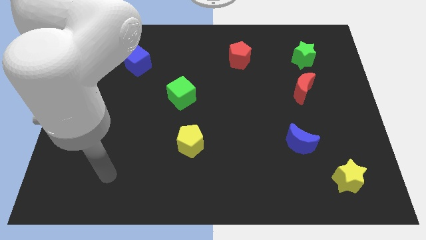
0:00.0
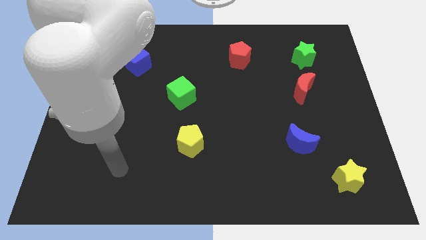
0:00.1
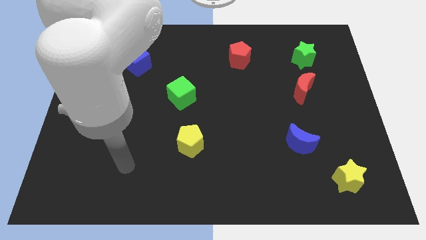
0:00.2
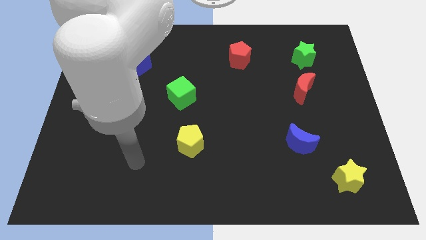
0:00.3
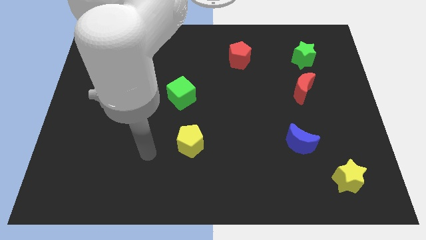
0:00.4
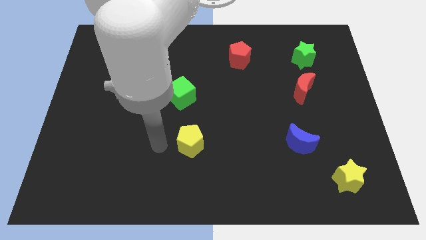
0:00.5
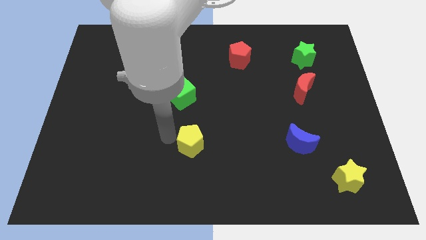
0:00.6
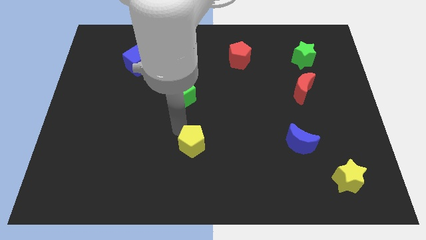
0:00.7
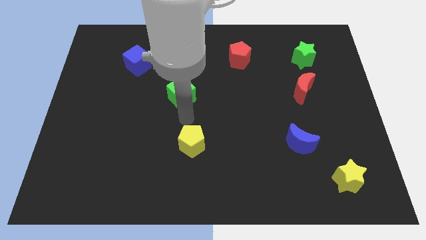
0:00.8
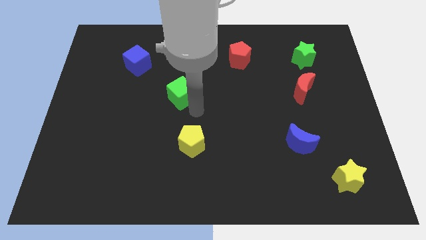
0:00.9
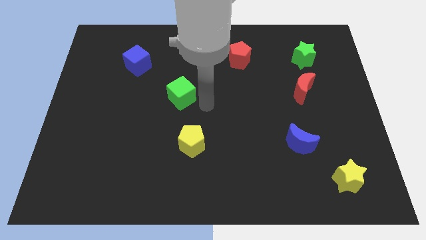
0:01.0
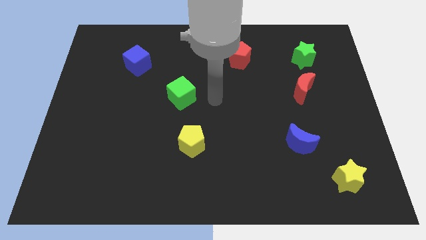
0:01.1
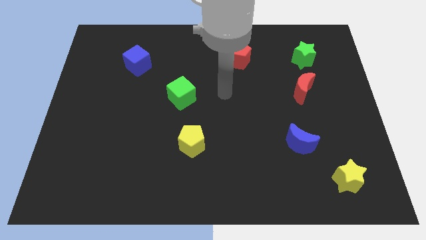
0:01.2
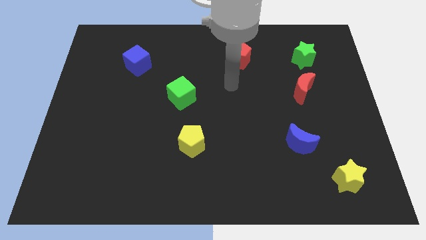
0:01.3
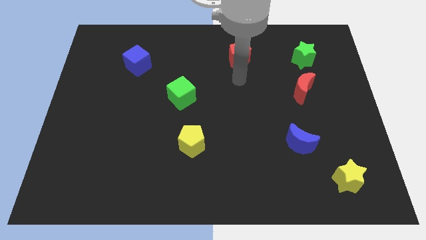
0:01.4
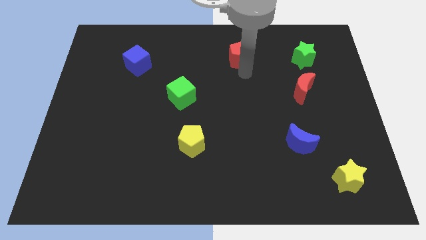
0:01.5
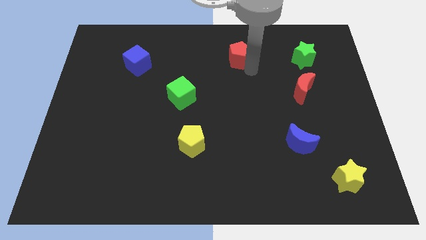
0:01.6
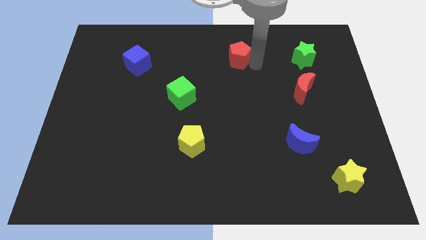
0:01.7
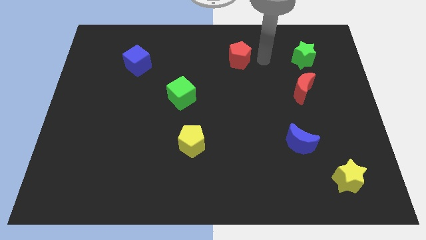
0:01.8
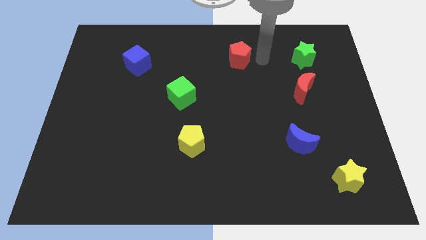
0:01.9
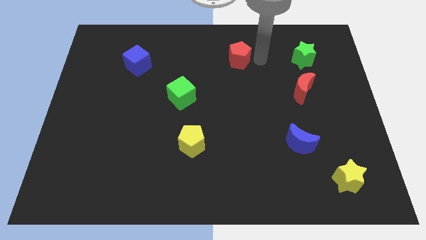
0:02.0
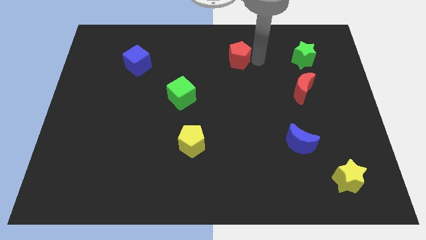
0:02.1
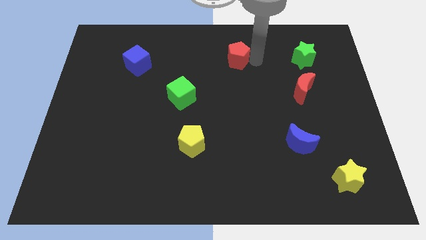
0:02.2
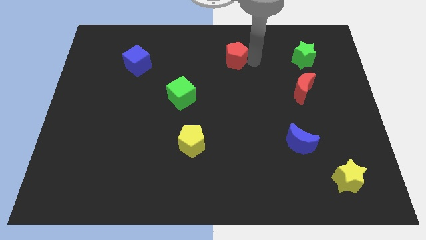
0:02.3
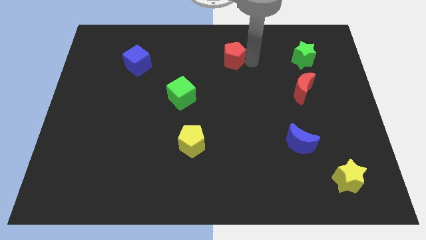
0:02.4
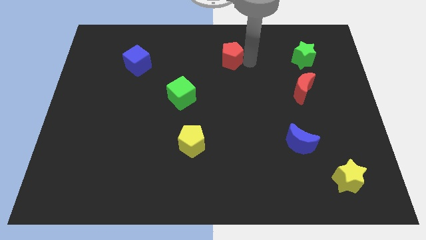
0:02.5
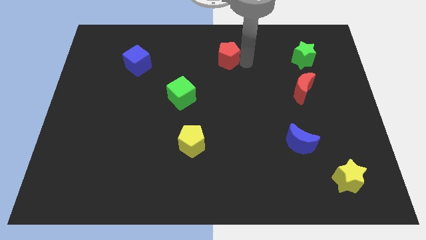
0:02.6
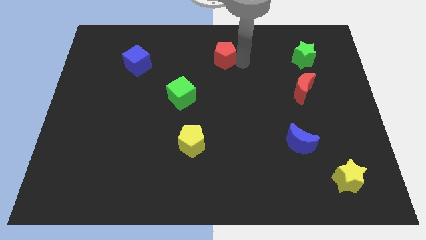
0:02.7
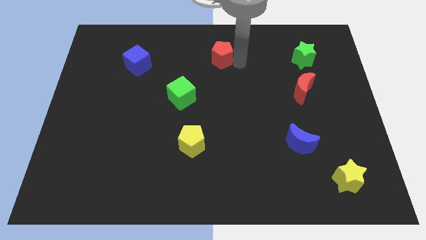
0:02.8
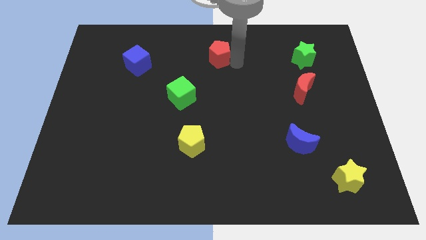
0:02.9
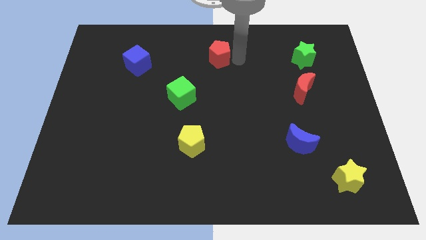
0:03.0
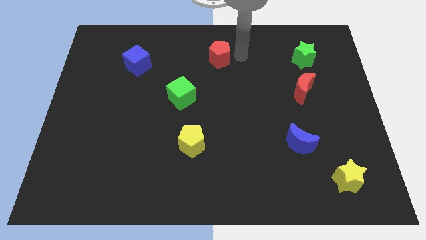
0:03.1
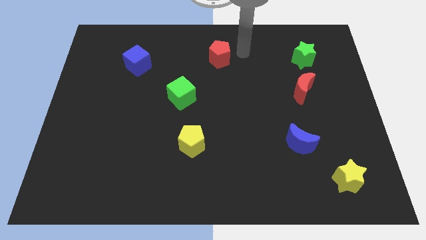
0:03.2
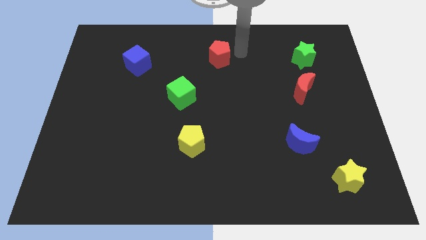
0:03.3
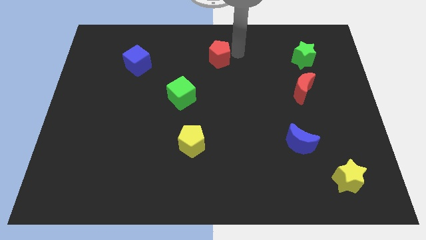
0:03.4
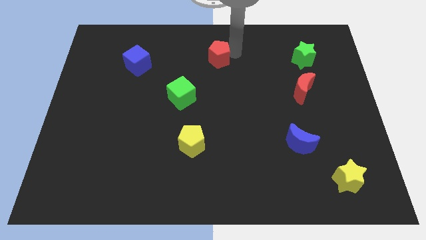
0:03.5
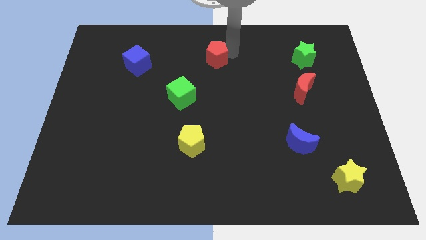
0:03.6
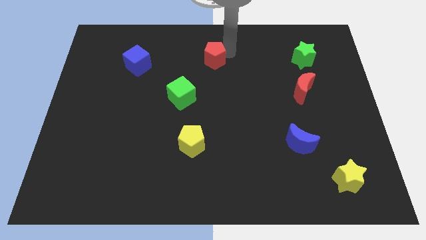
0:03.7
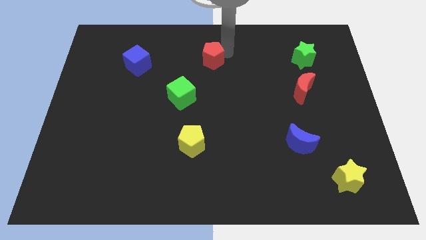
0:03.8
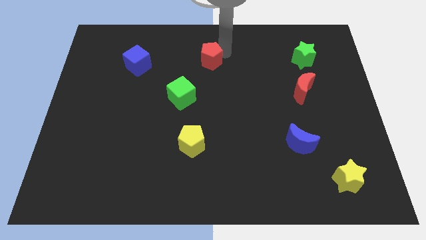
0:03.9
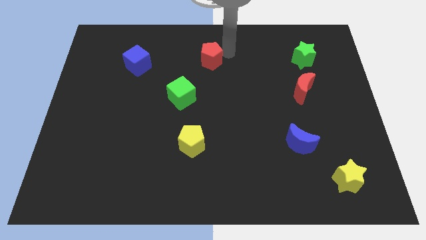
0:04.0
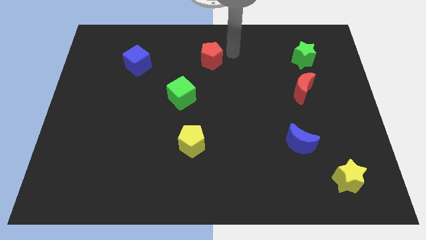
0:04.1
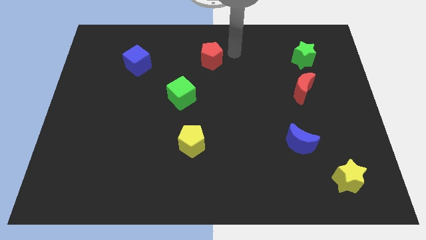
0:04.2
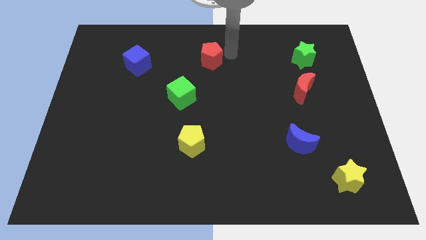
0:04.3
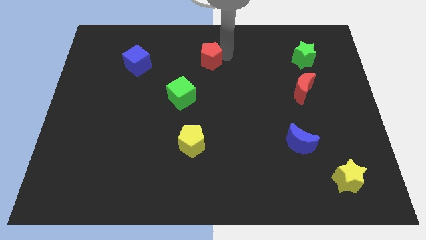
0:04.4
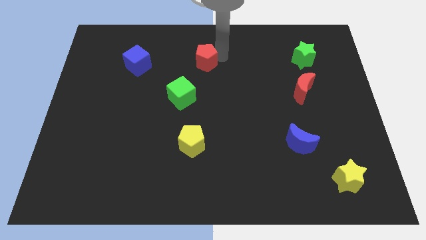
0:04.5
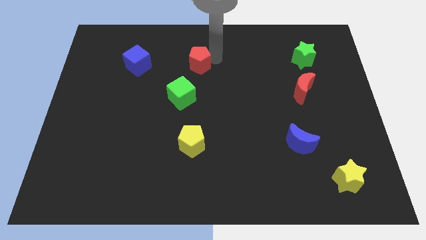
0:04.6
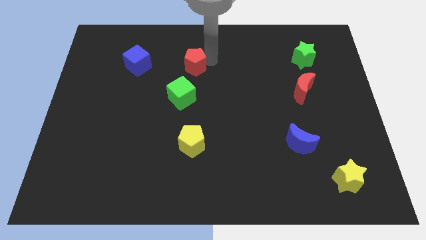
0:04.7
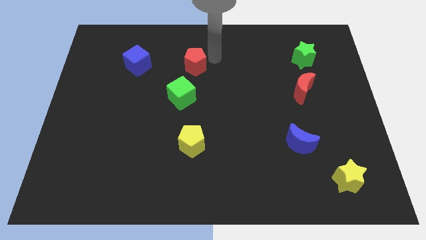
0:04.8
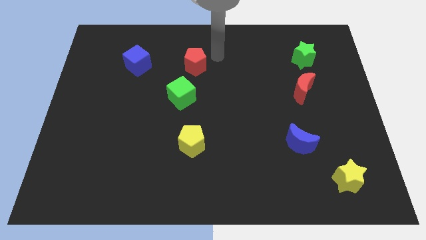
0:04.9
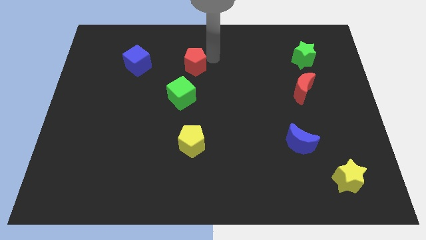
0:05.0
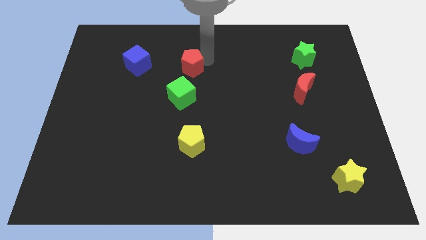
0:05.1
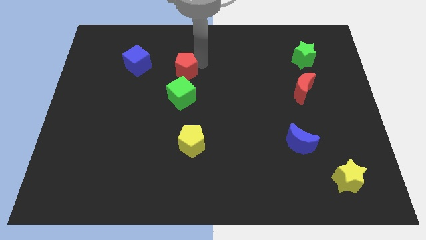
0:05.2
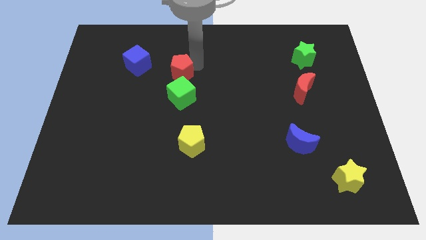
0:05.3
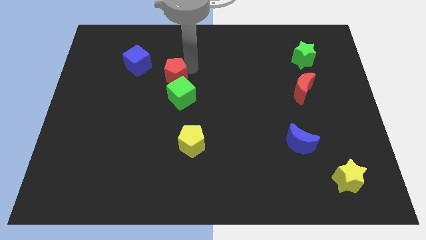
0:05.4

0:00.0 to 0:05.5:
put the red pentagon to the bottom right of the blue cube

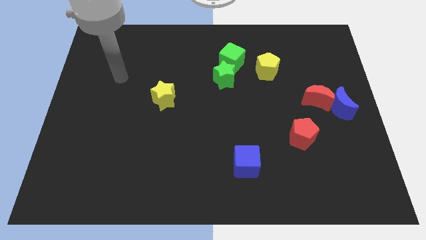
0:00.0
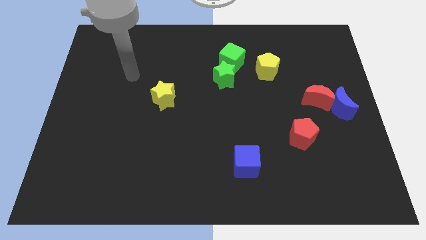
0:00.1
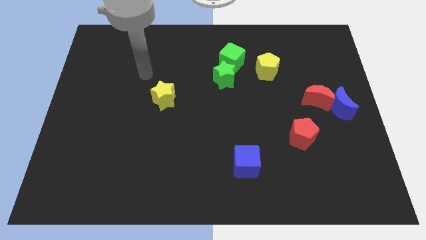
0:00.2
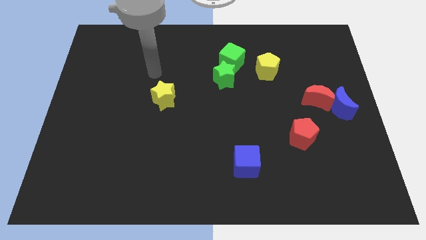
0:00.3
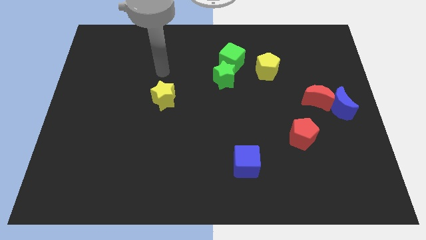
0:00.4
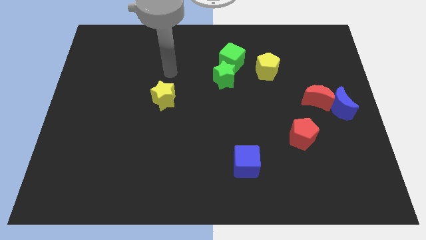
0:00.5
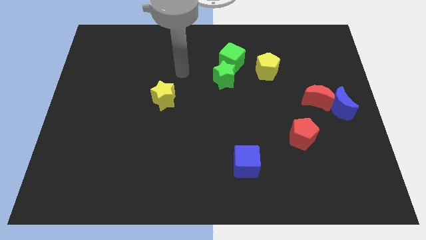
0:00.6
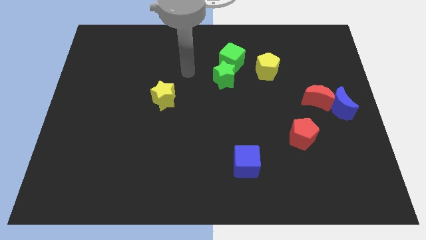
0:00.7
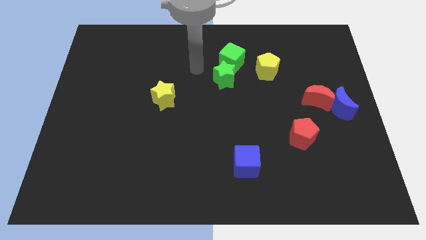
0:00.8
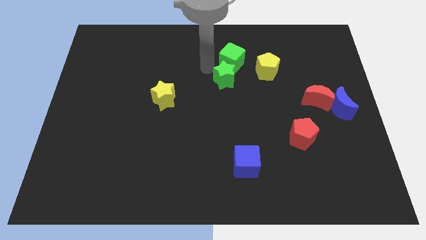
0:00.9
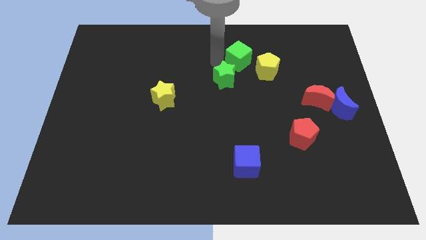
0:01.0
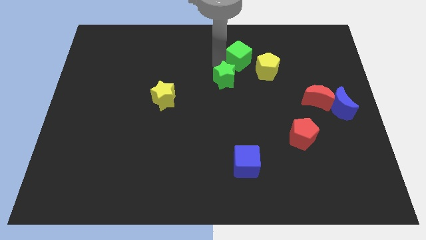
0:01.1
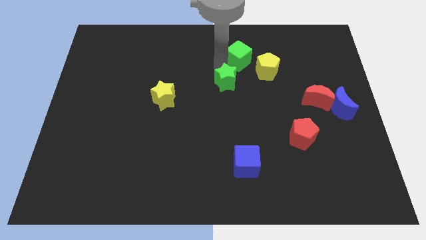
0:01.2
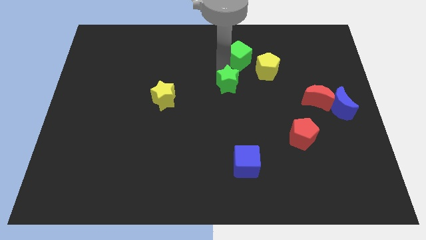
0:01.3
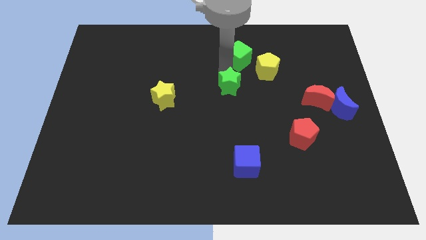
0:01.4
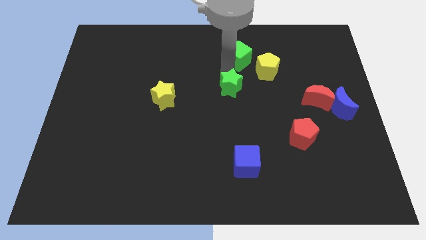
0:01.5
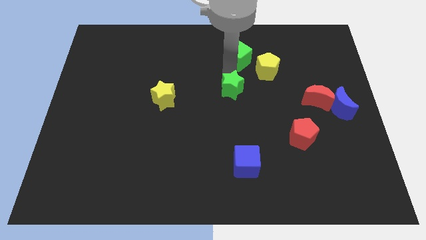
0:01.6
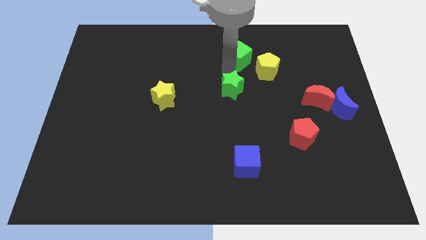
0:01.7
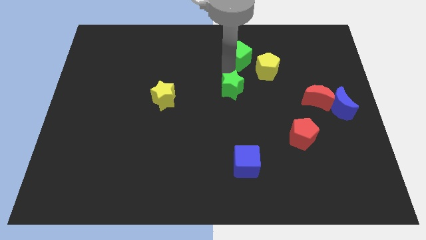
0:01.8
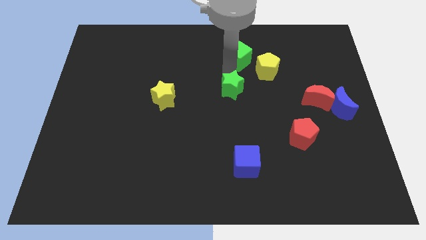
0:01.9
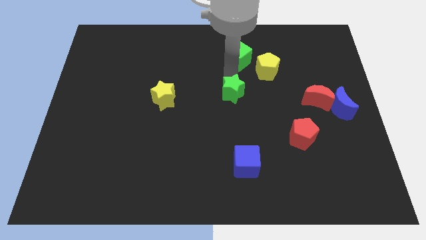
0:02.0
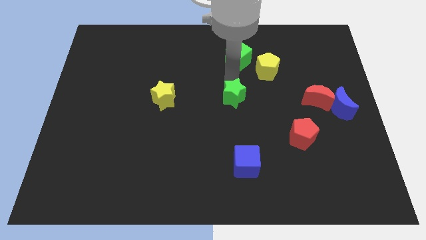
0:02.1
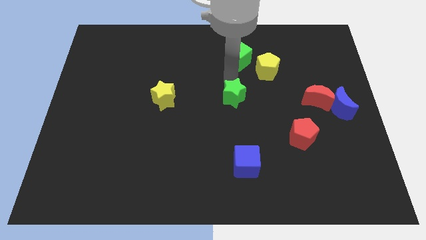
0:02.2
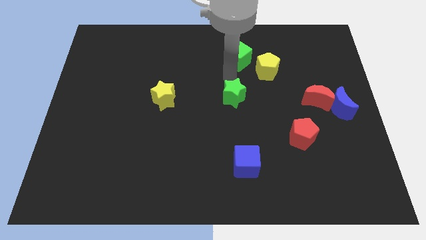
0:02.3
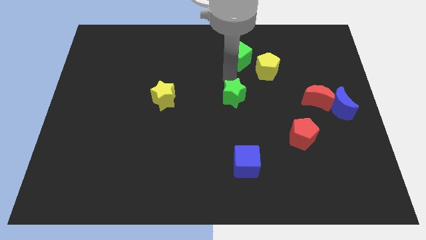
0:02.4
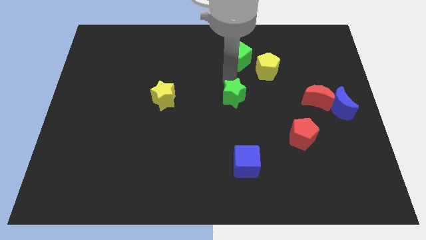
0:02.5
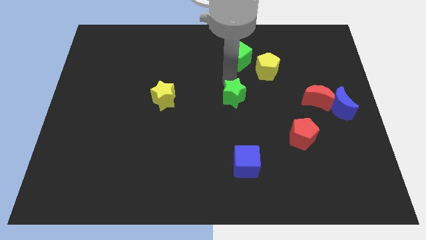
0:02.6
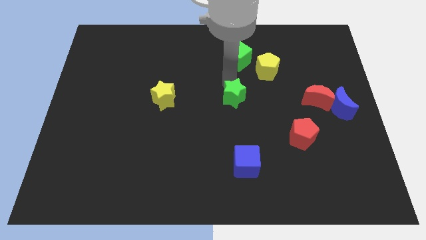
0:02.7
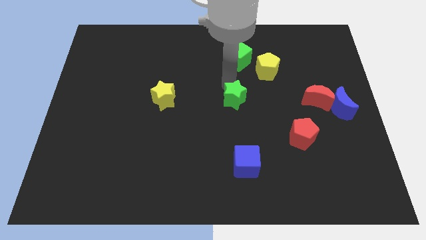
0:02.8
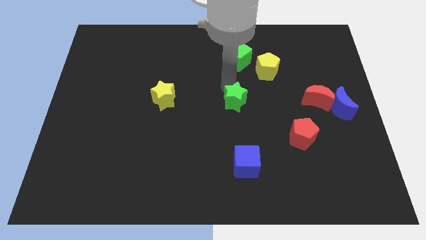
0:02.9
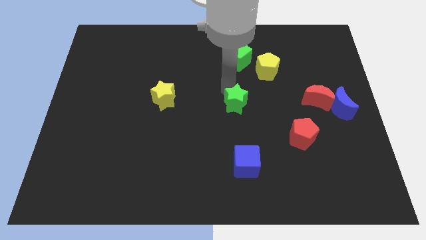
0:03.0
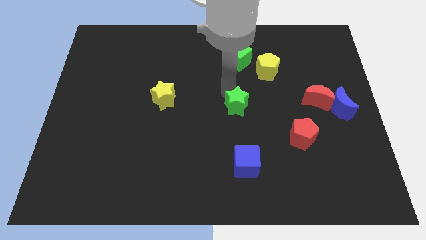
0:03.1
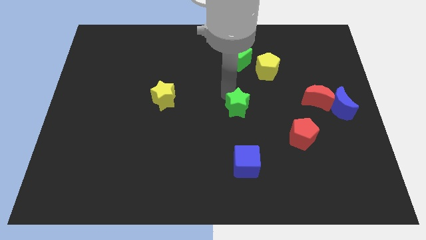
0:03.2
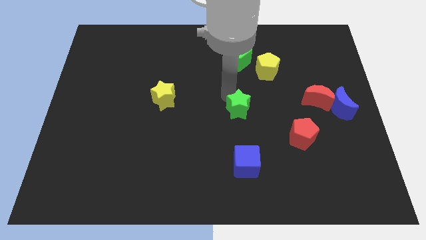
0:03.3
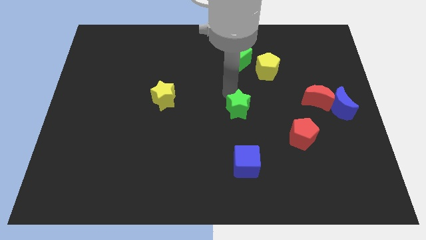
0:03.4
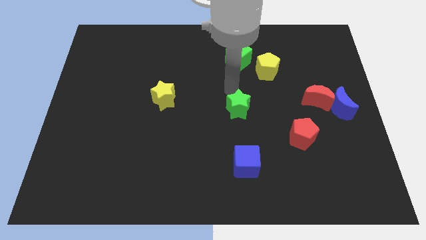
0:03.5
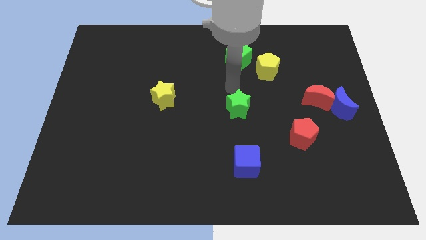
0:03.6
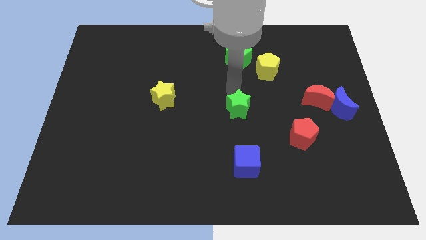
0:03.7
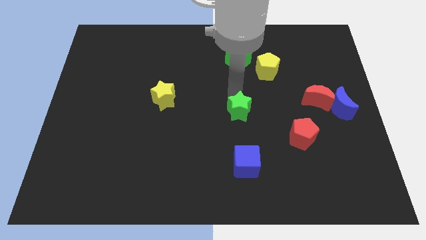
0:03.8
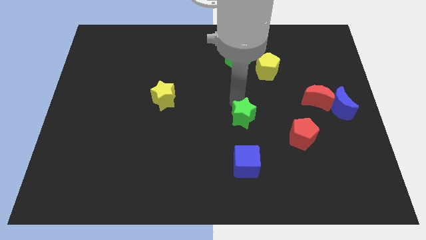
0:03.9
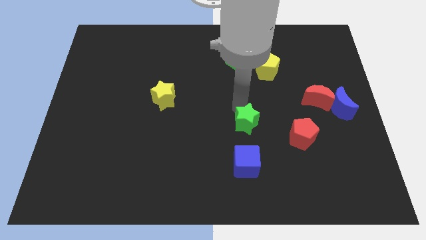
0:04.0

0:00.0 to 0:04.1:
slide the green star to the left of the red pentagon
